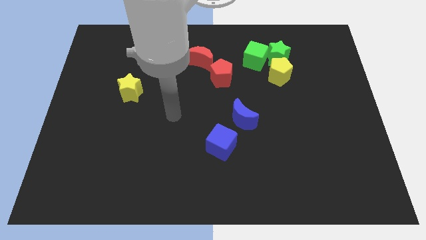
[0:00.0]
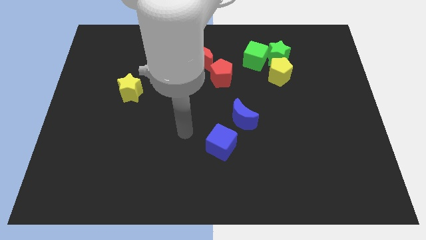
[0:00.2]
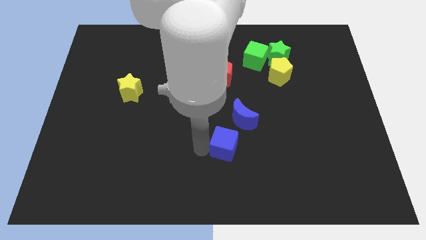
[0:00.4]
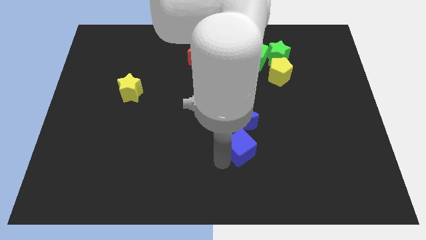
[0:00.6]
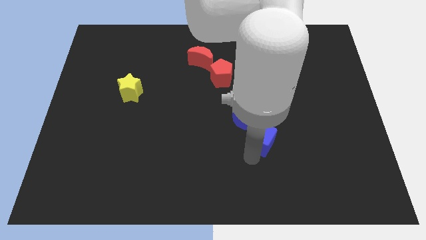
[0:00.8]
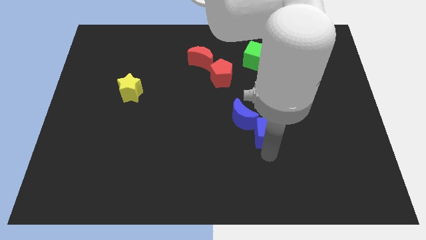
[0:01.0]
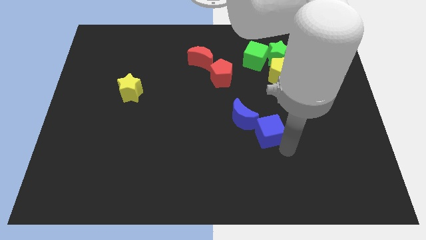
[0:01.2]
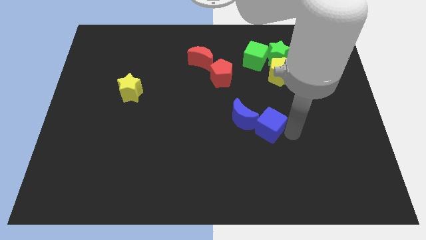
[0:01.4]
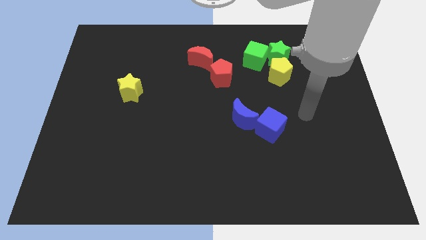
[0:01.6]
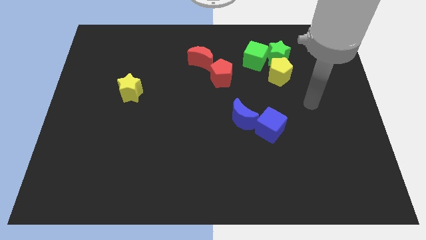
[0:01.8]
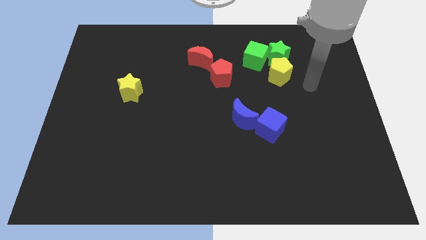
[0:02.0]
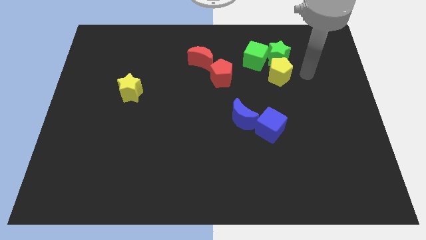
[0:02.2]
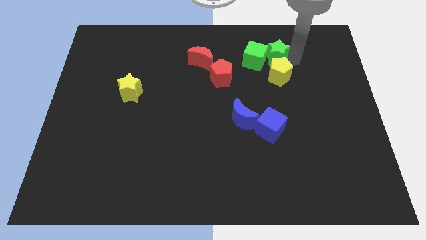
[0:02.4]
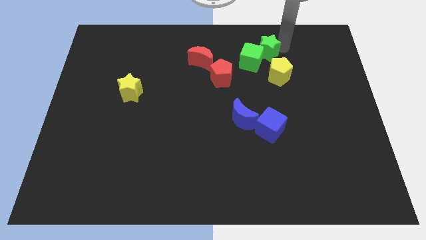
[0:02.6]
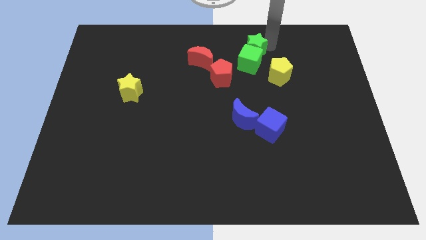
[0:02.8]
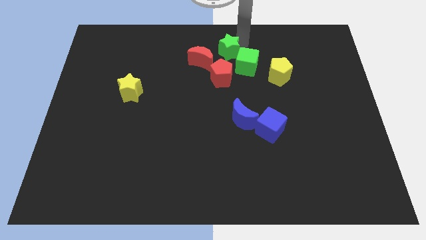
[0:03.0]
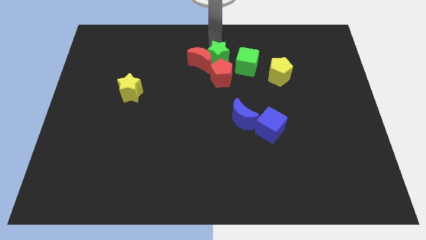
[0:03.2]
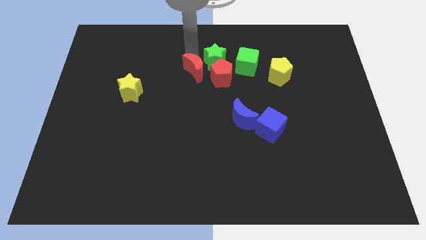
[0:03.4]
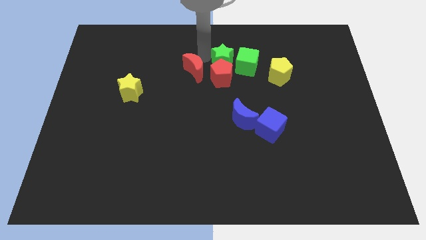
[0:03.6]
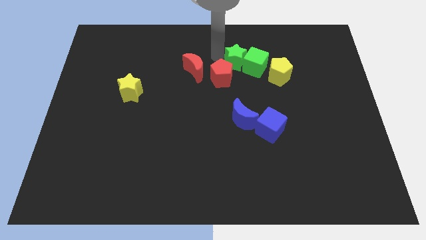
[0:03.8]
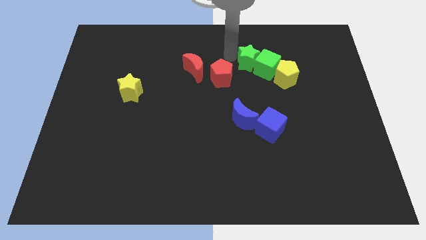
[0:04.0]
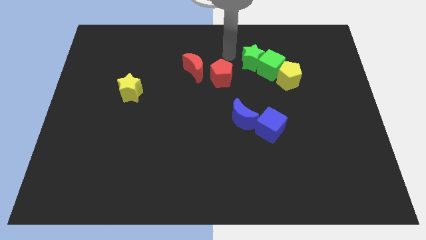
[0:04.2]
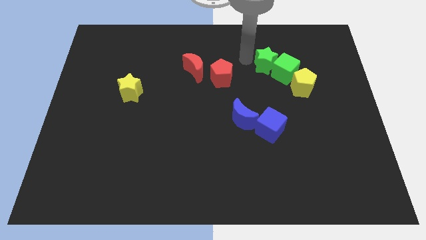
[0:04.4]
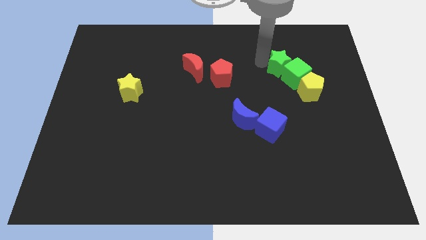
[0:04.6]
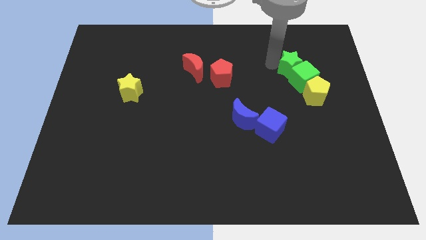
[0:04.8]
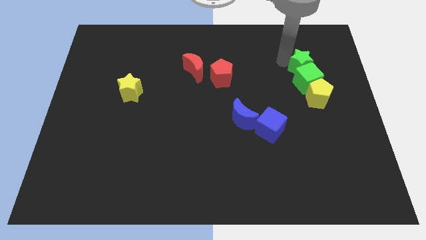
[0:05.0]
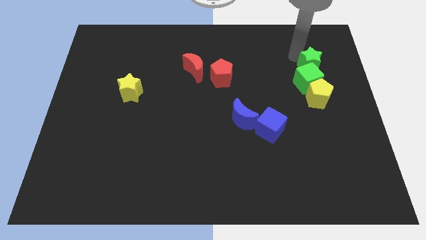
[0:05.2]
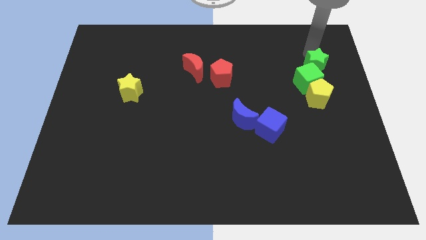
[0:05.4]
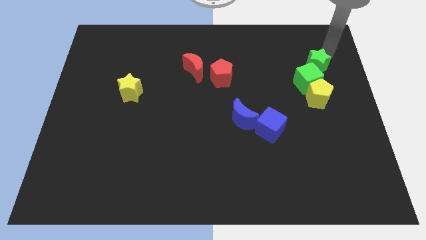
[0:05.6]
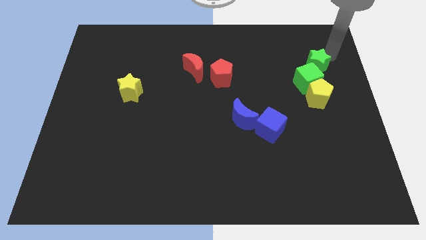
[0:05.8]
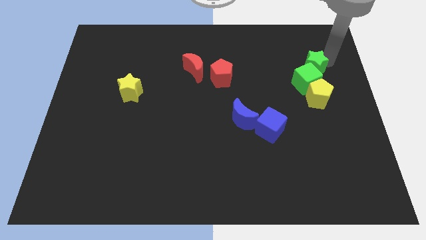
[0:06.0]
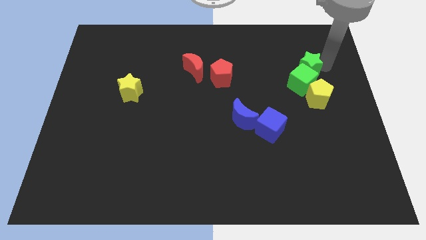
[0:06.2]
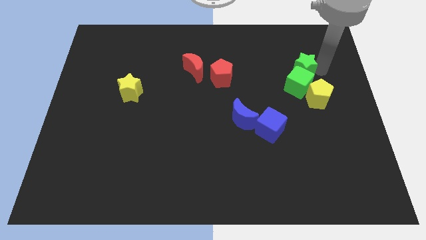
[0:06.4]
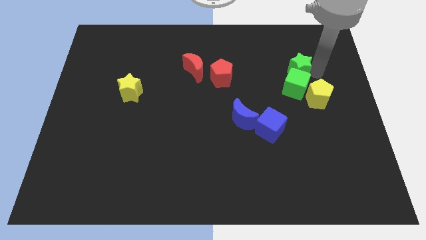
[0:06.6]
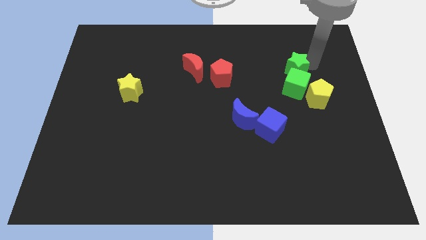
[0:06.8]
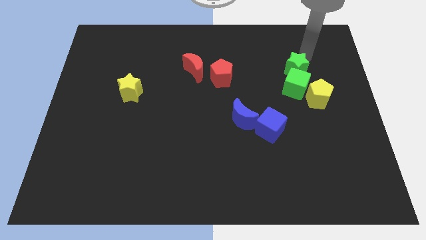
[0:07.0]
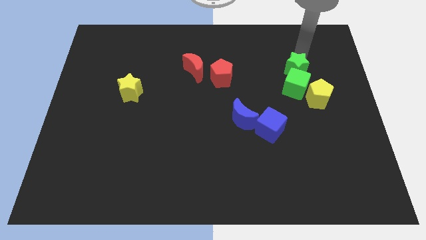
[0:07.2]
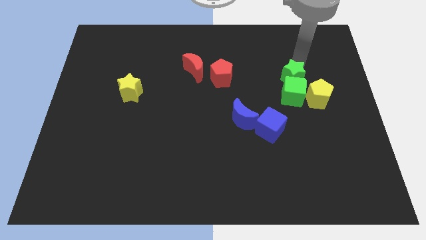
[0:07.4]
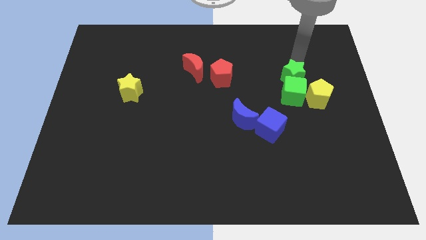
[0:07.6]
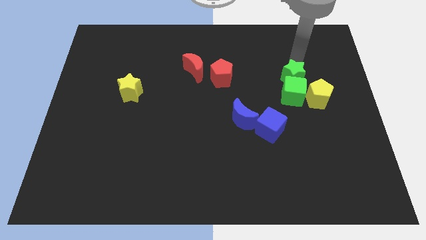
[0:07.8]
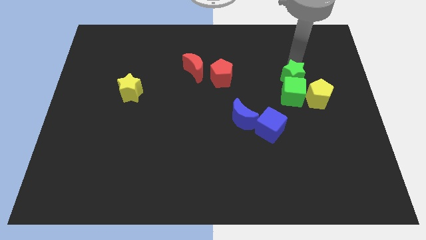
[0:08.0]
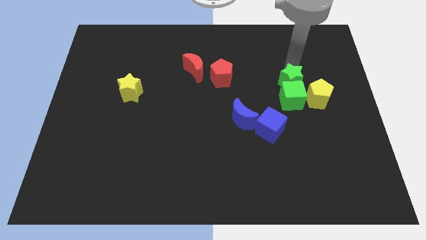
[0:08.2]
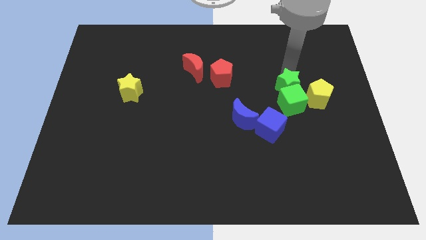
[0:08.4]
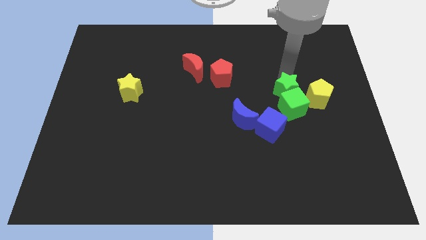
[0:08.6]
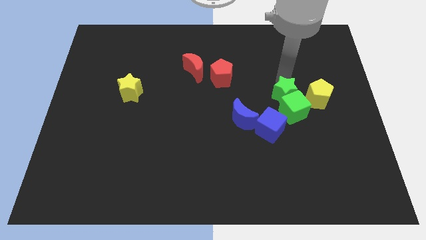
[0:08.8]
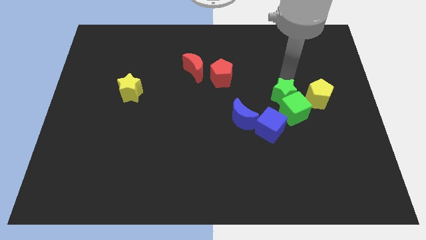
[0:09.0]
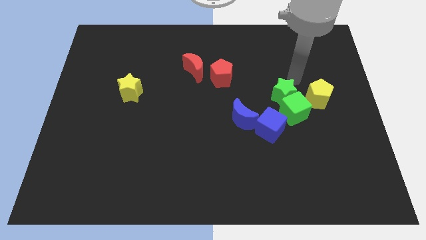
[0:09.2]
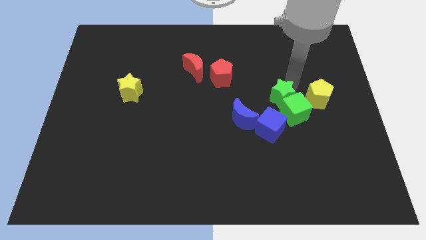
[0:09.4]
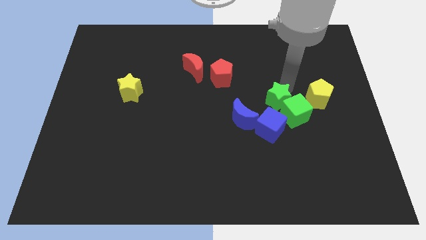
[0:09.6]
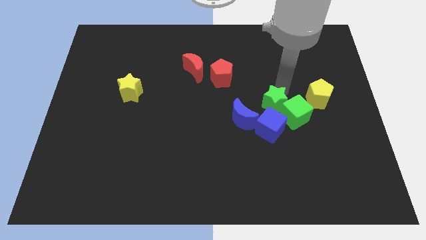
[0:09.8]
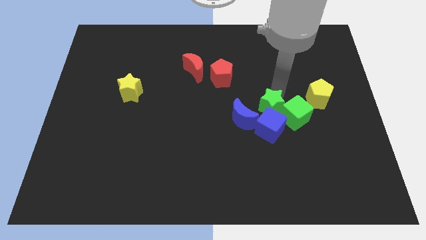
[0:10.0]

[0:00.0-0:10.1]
move the green star to the blue cube

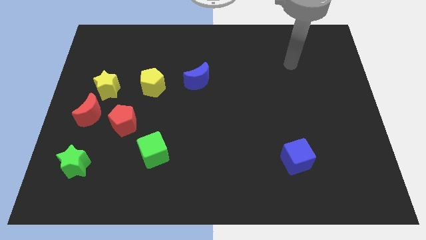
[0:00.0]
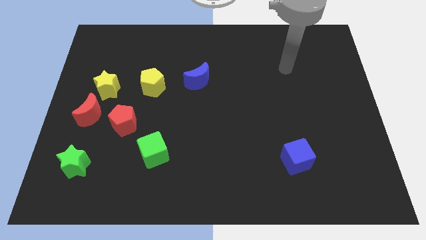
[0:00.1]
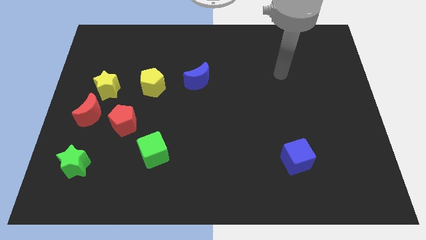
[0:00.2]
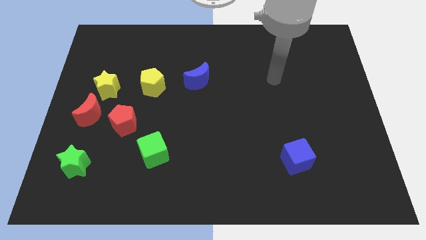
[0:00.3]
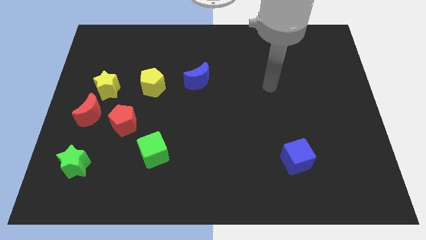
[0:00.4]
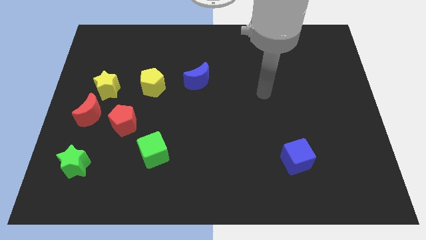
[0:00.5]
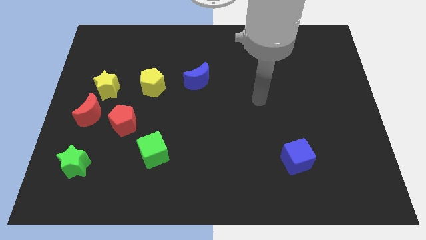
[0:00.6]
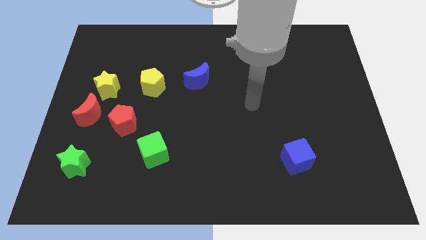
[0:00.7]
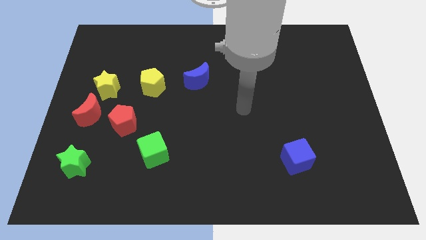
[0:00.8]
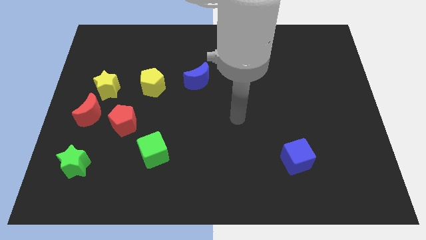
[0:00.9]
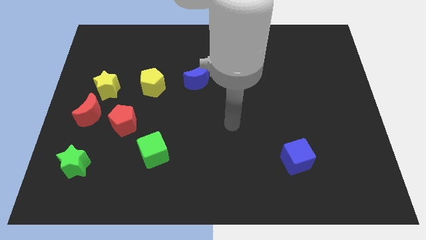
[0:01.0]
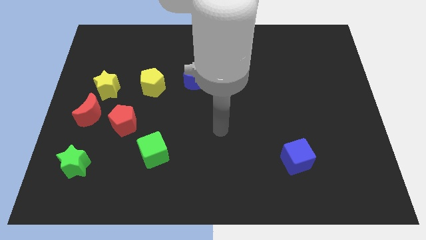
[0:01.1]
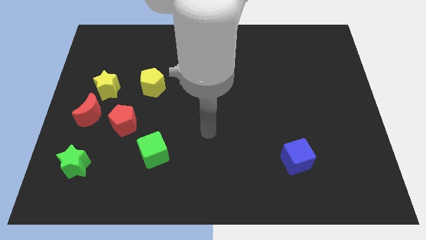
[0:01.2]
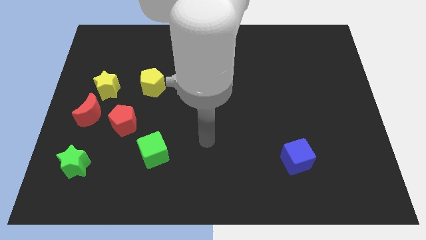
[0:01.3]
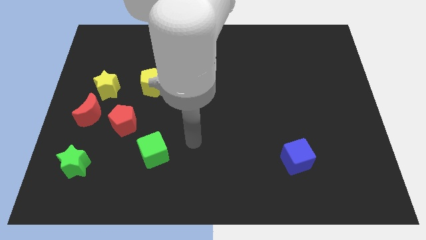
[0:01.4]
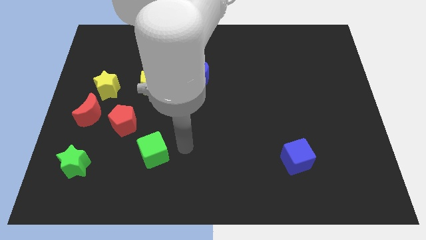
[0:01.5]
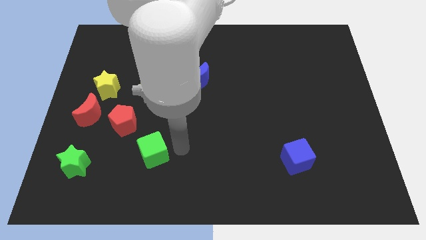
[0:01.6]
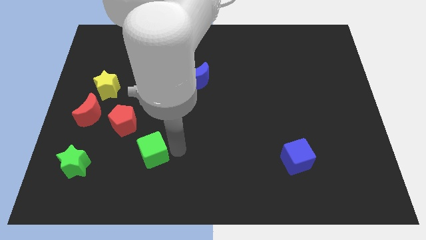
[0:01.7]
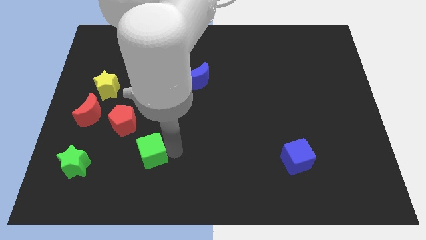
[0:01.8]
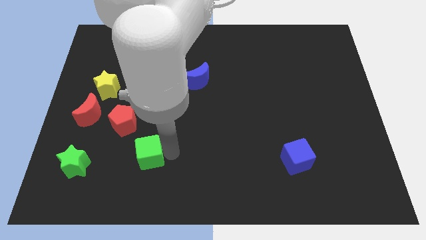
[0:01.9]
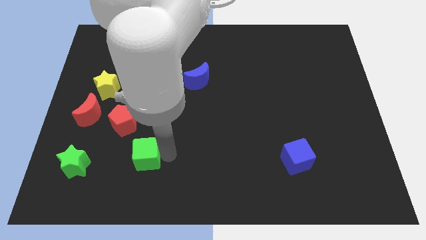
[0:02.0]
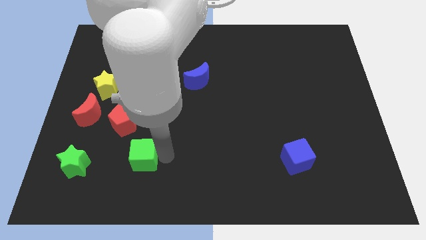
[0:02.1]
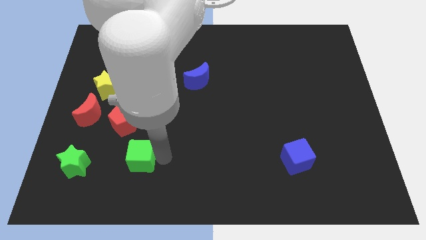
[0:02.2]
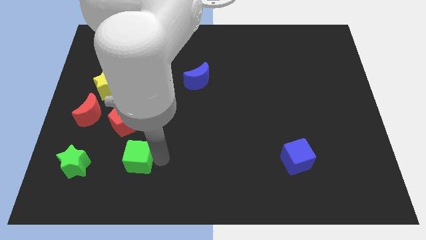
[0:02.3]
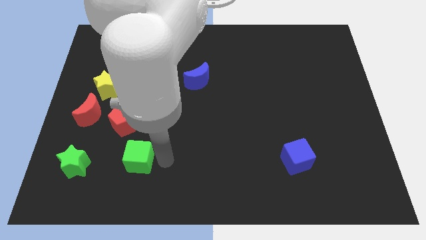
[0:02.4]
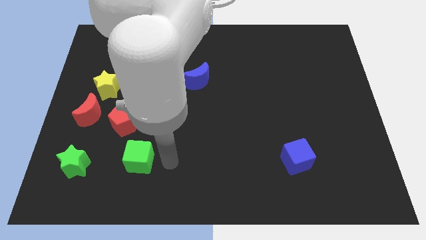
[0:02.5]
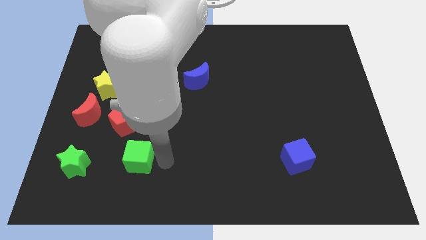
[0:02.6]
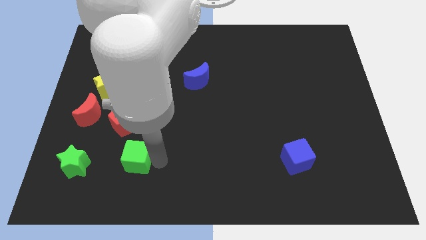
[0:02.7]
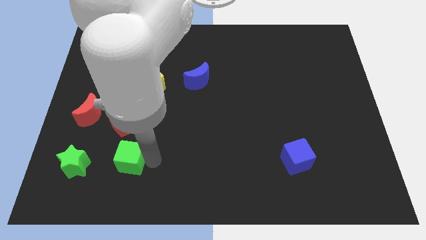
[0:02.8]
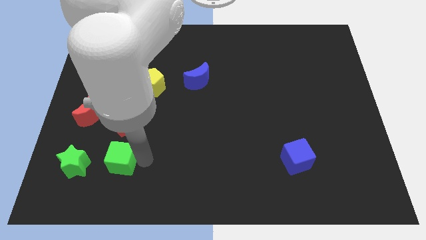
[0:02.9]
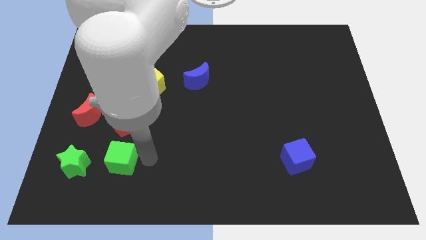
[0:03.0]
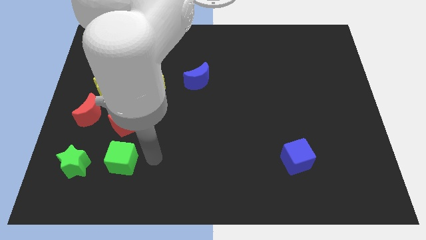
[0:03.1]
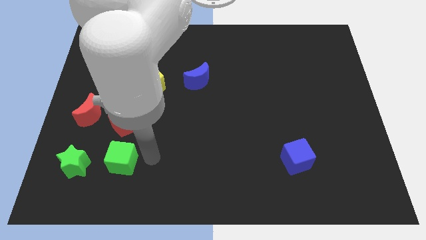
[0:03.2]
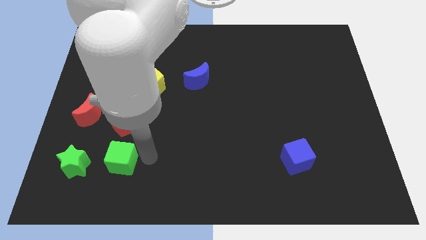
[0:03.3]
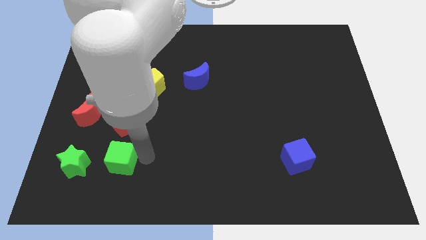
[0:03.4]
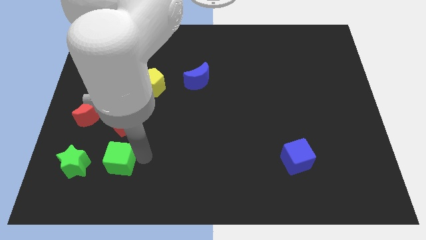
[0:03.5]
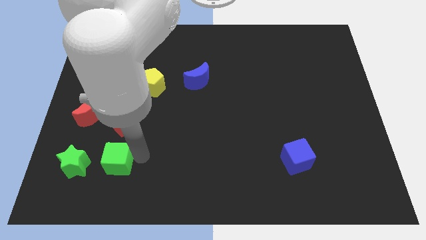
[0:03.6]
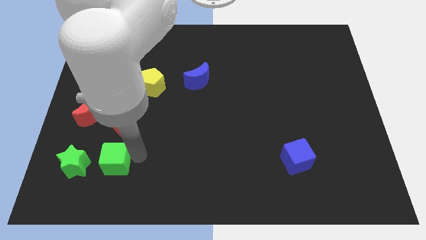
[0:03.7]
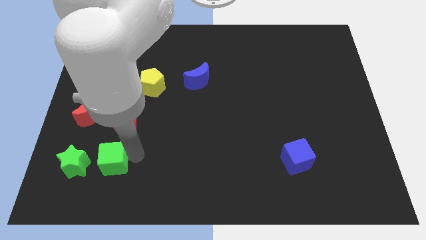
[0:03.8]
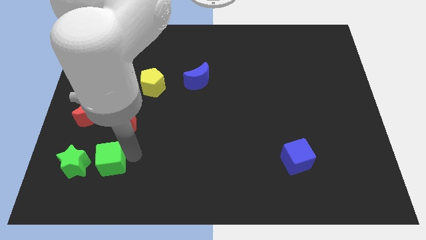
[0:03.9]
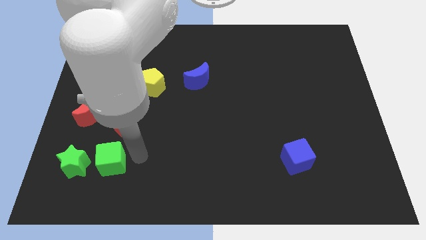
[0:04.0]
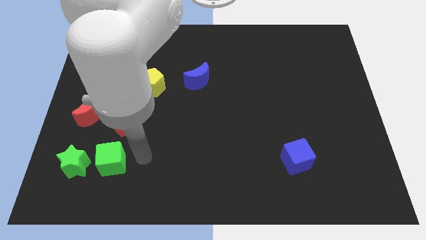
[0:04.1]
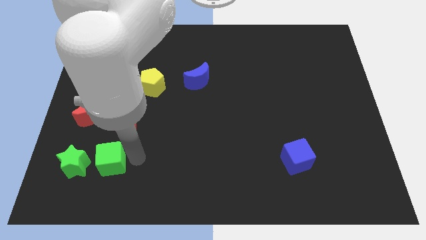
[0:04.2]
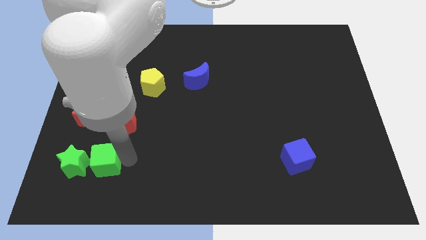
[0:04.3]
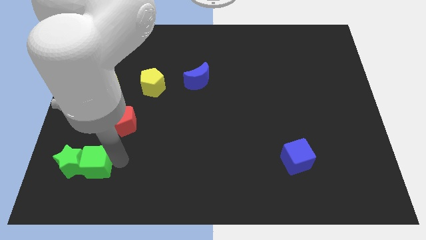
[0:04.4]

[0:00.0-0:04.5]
move the green cube next to the green star
